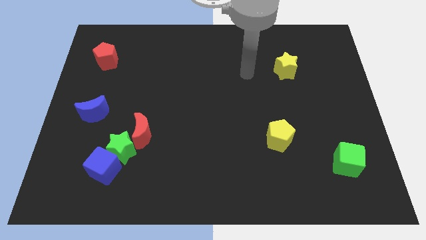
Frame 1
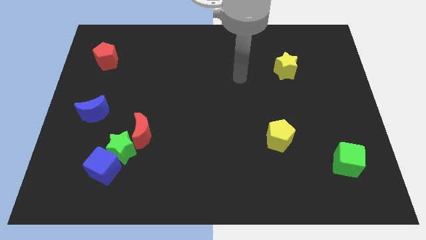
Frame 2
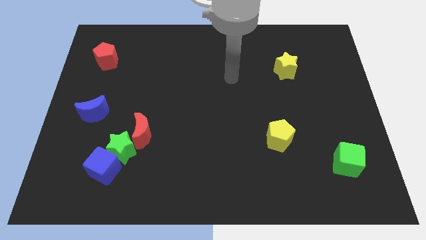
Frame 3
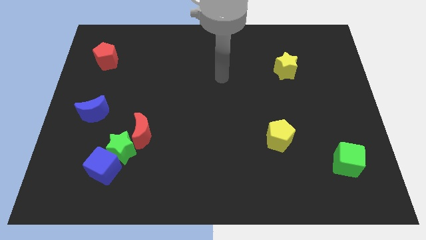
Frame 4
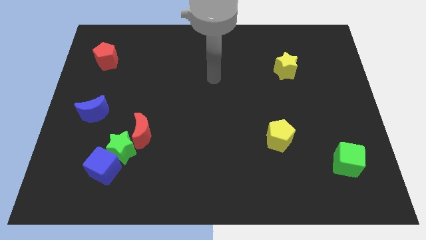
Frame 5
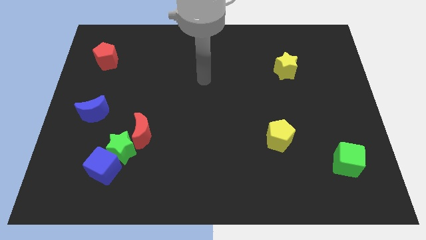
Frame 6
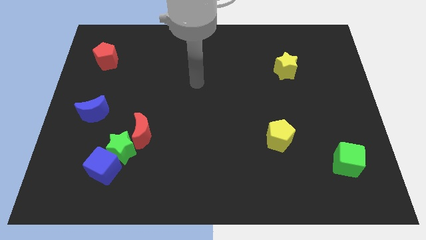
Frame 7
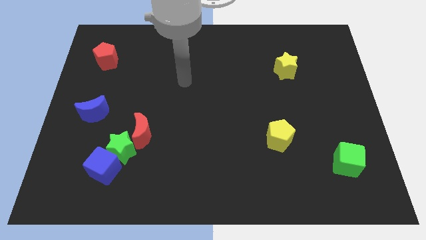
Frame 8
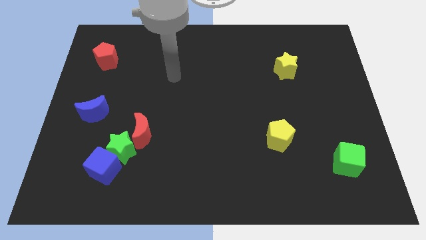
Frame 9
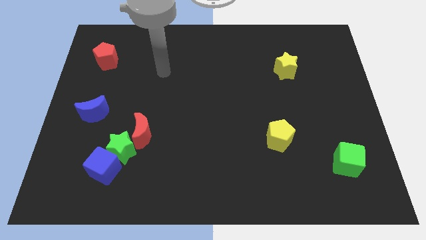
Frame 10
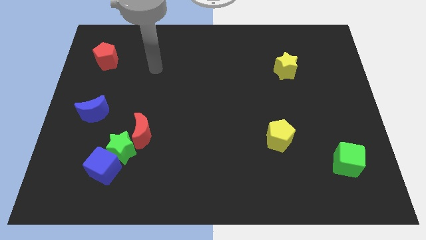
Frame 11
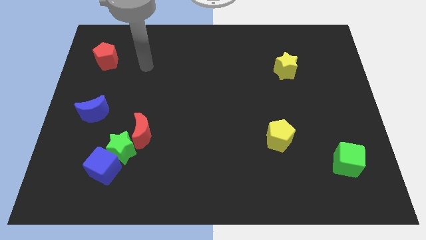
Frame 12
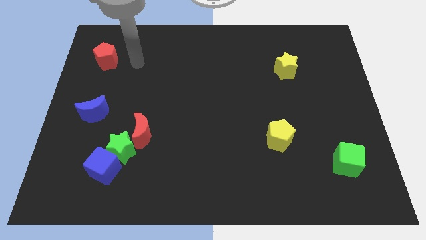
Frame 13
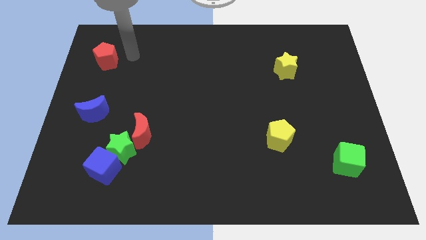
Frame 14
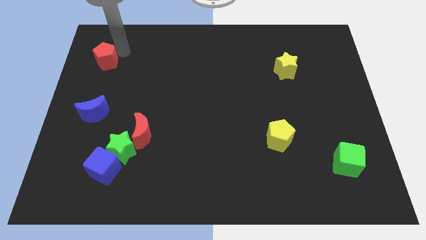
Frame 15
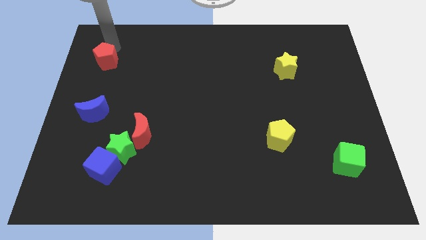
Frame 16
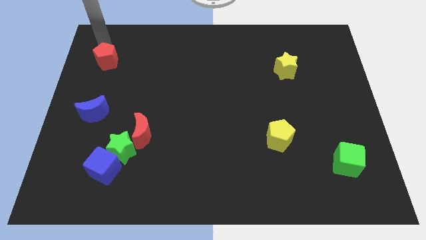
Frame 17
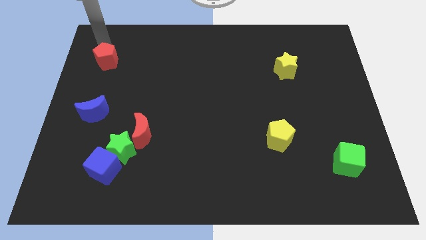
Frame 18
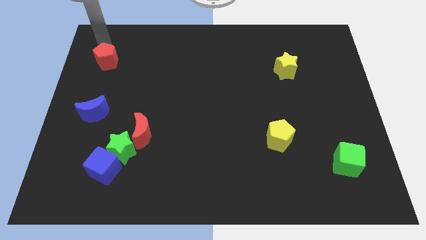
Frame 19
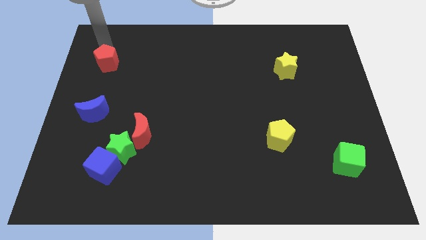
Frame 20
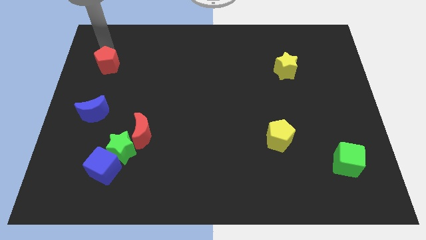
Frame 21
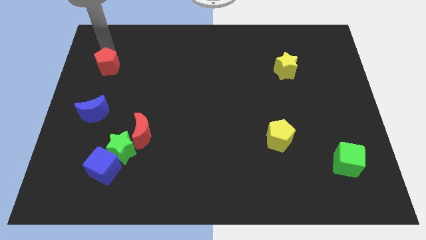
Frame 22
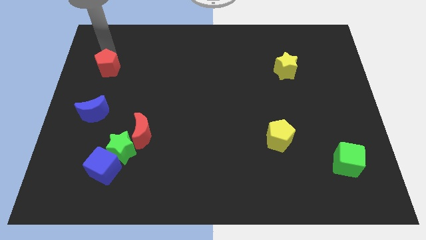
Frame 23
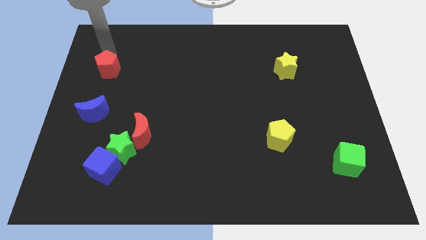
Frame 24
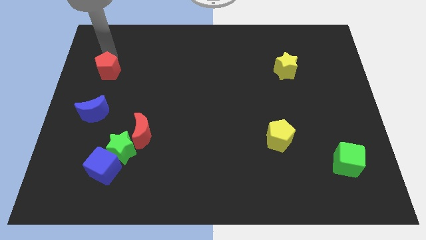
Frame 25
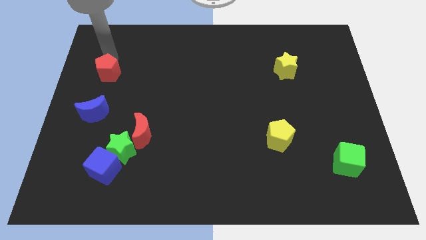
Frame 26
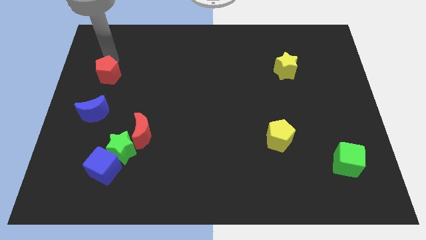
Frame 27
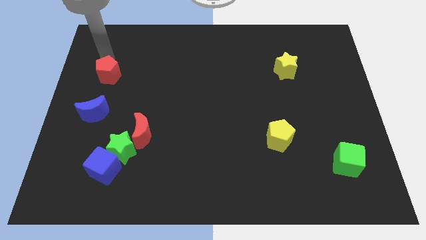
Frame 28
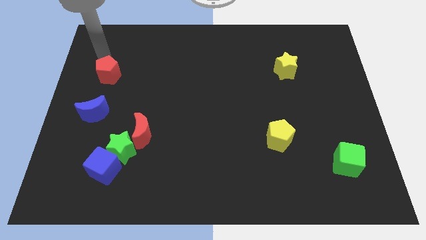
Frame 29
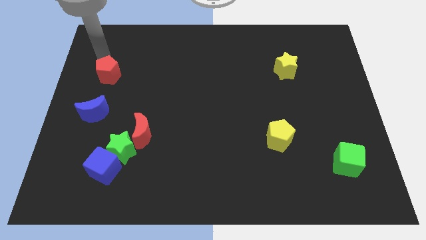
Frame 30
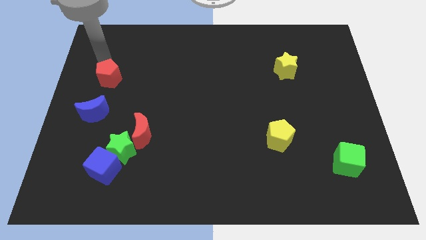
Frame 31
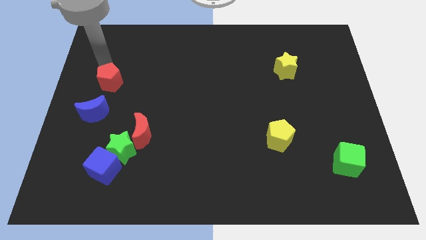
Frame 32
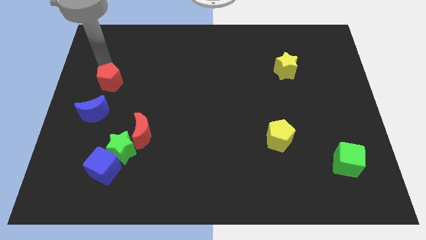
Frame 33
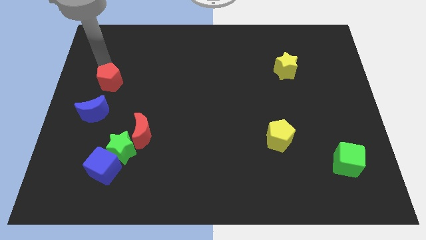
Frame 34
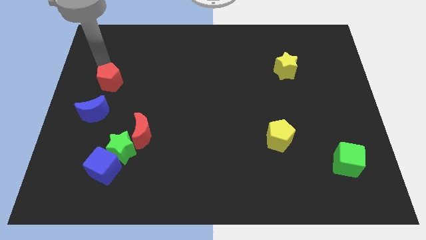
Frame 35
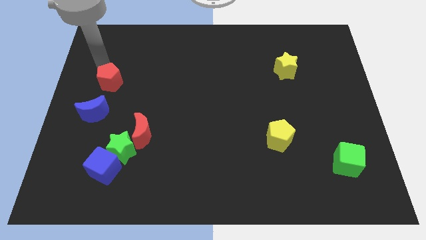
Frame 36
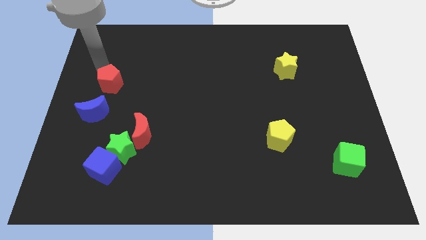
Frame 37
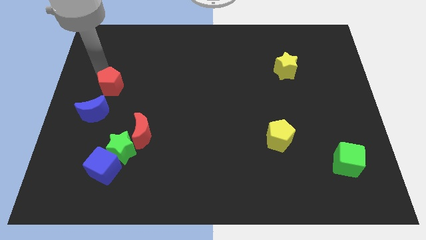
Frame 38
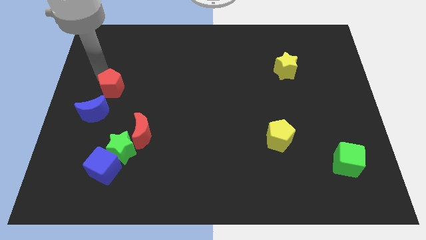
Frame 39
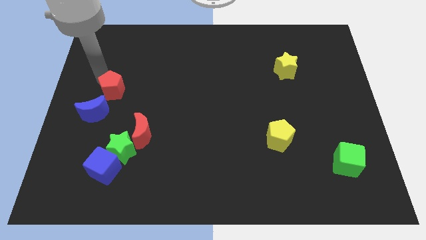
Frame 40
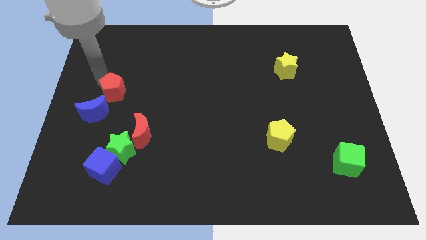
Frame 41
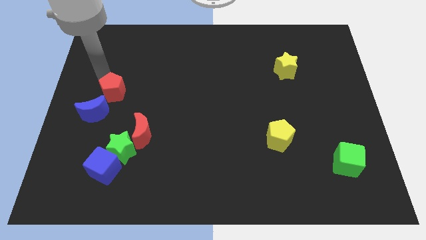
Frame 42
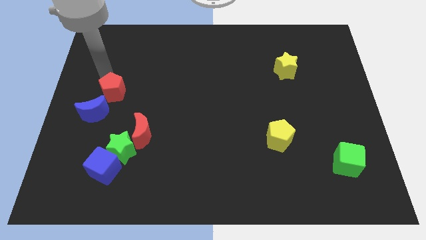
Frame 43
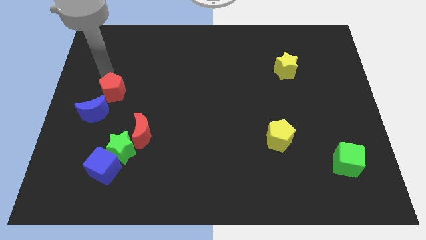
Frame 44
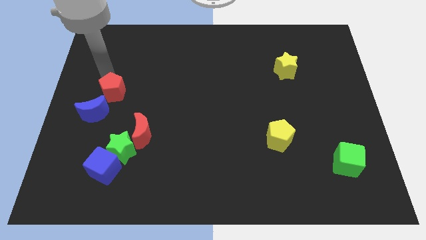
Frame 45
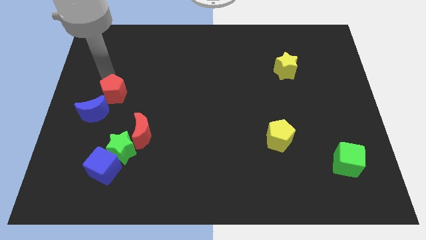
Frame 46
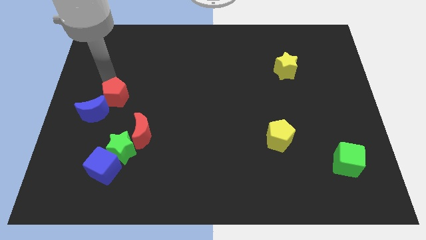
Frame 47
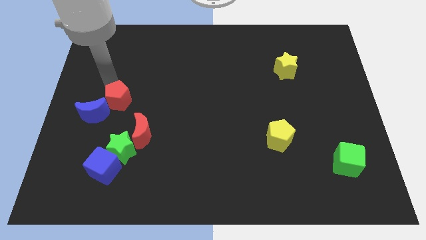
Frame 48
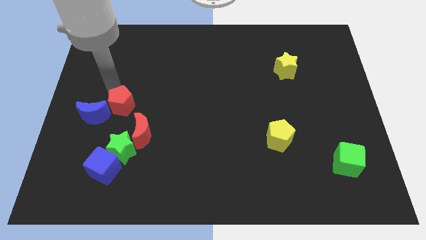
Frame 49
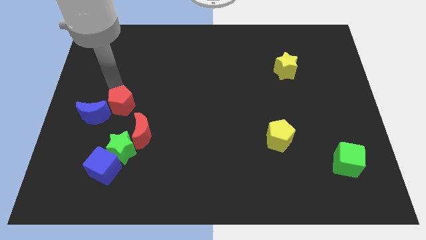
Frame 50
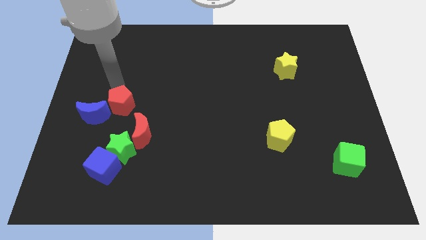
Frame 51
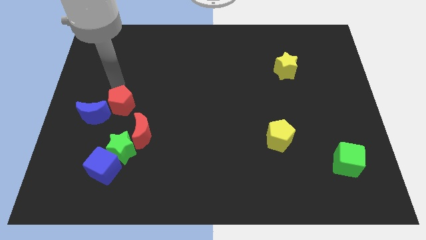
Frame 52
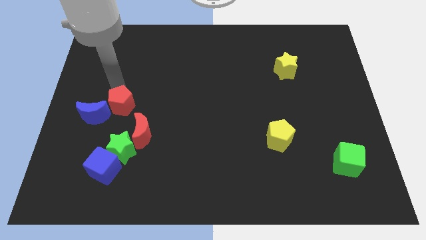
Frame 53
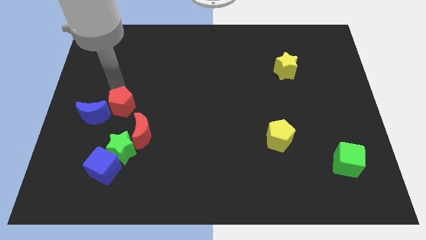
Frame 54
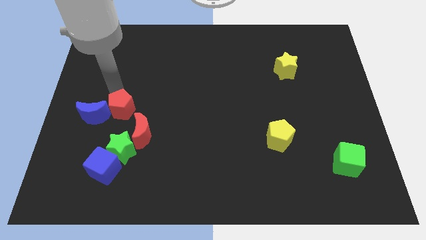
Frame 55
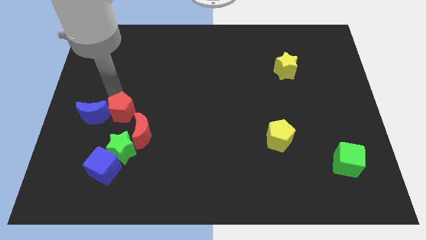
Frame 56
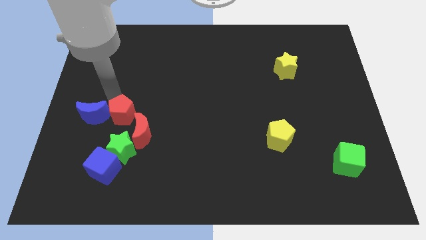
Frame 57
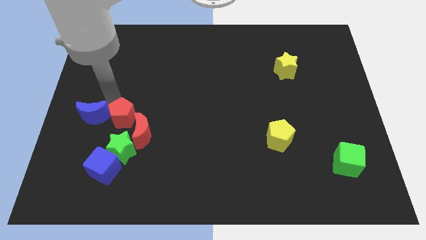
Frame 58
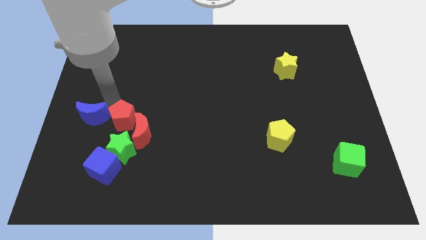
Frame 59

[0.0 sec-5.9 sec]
put the red pentagon next to the red moon

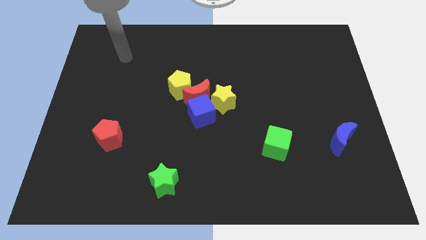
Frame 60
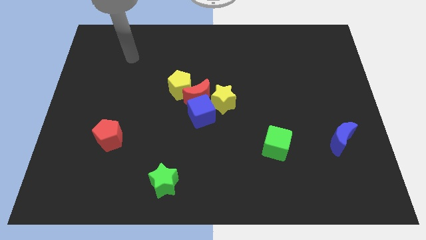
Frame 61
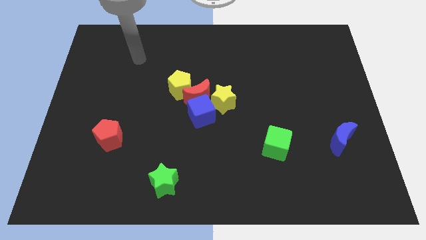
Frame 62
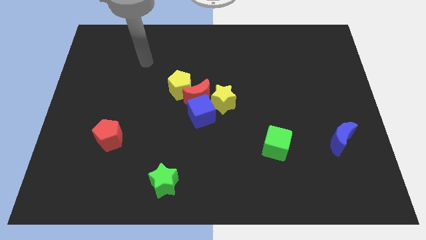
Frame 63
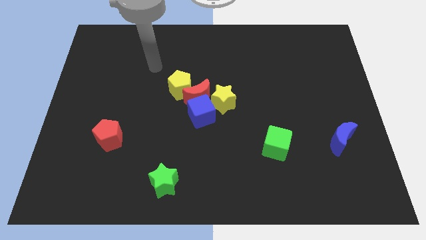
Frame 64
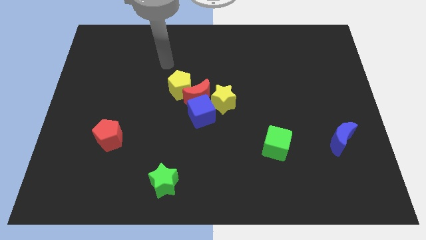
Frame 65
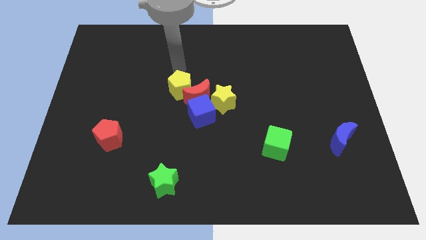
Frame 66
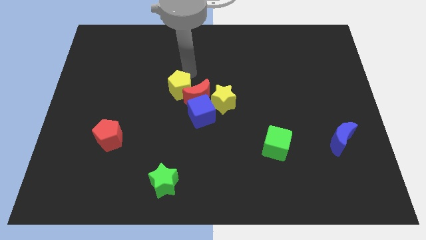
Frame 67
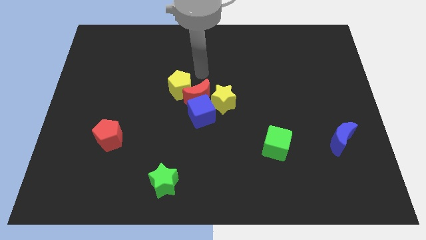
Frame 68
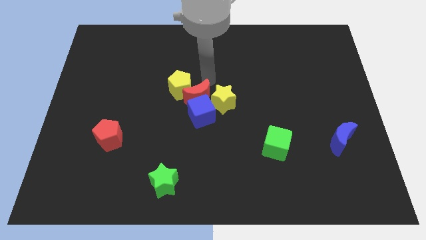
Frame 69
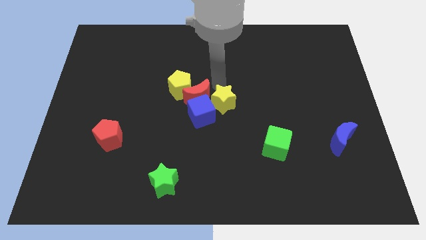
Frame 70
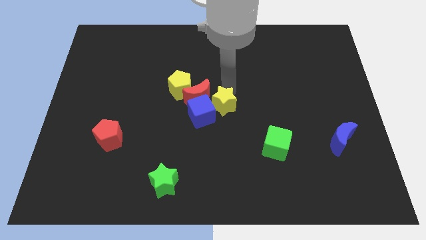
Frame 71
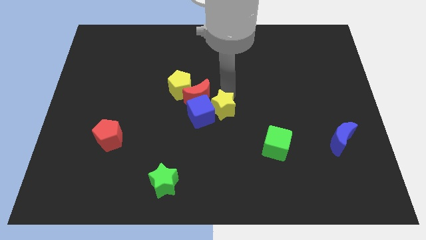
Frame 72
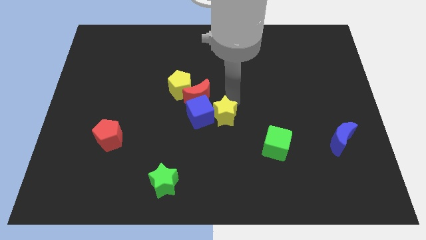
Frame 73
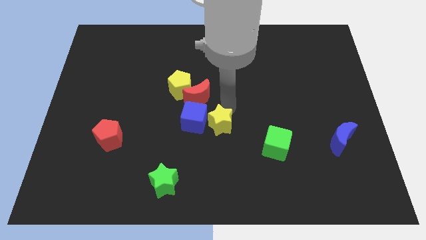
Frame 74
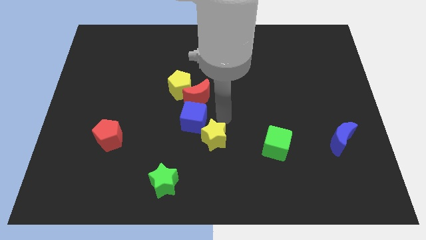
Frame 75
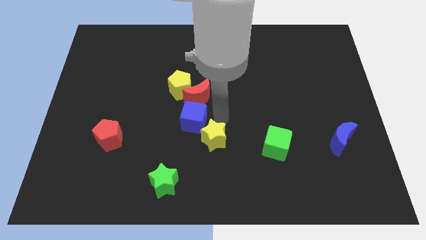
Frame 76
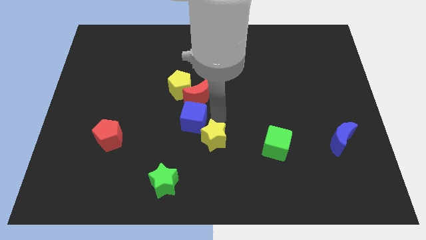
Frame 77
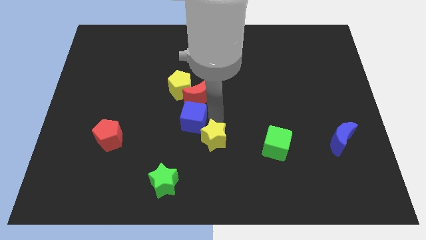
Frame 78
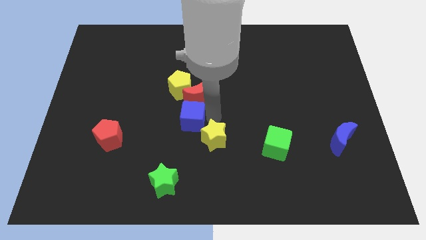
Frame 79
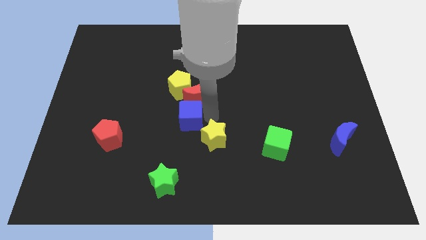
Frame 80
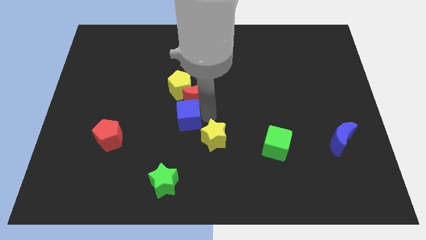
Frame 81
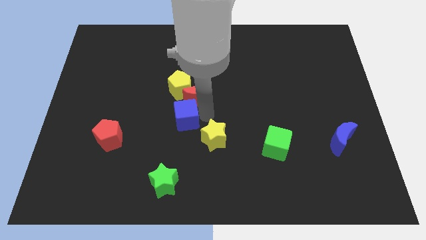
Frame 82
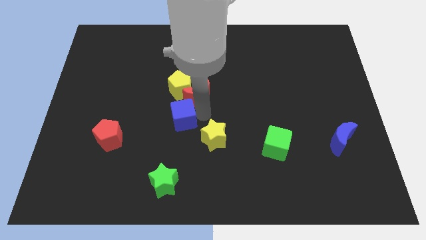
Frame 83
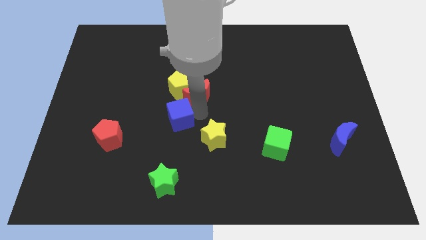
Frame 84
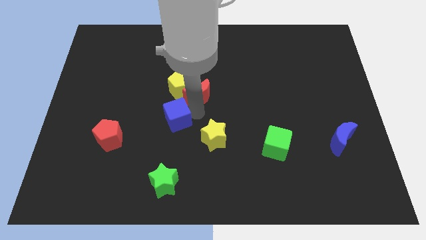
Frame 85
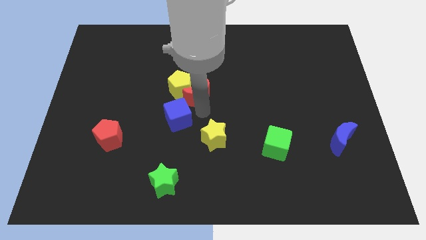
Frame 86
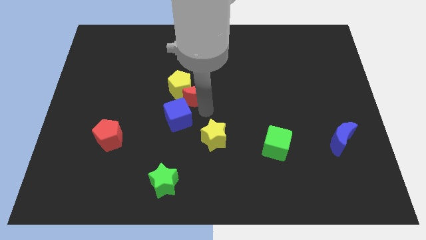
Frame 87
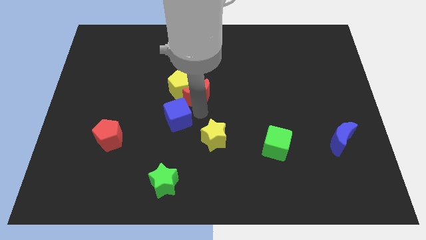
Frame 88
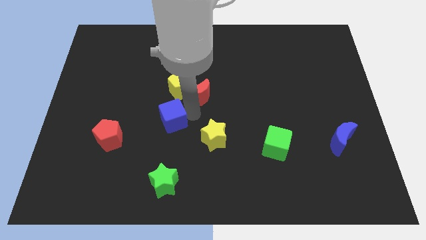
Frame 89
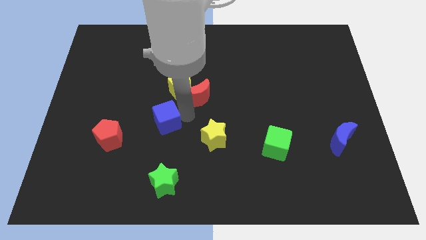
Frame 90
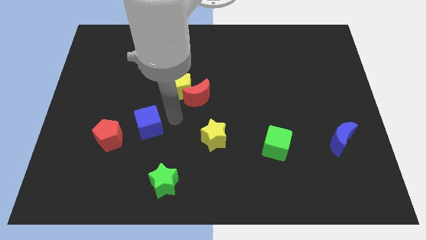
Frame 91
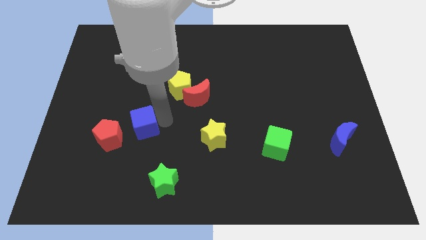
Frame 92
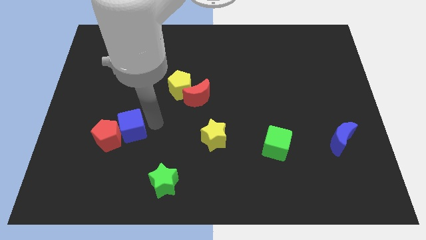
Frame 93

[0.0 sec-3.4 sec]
move the blue cube to the red pentagon
